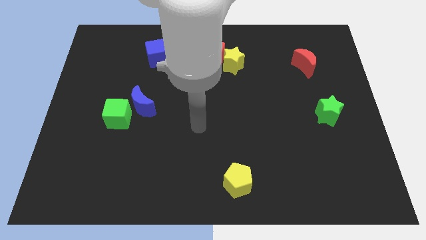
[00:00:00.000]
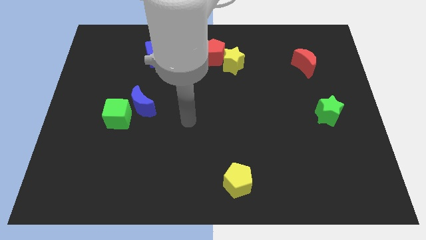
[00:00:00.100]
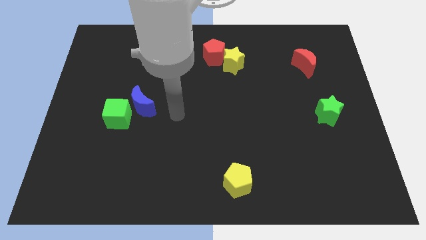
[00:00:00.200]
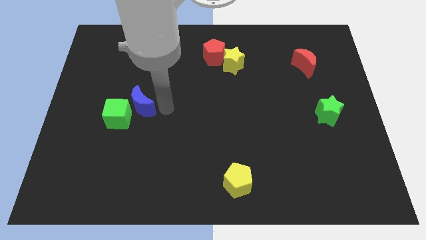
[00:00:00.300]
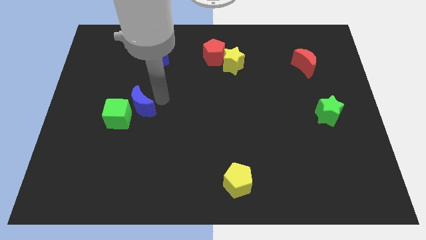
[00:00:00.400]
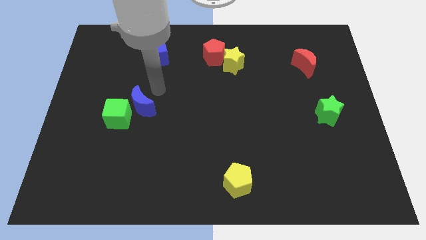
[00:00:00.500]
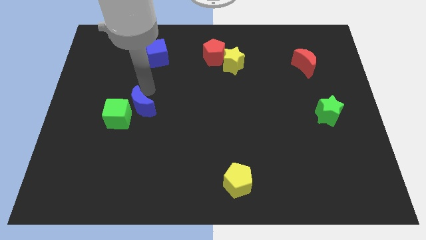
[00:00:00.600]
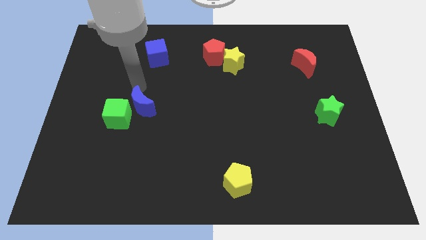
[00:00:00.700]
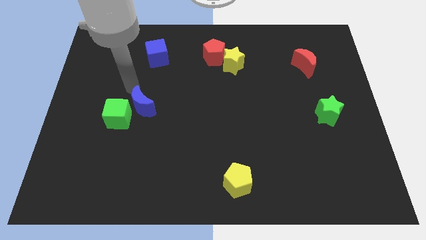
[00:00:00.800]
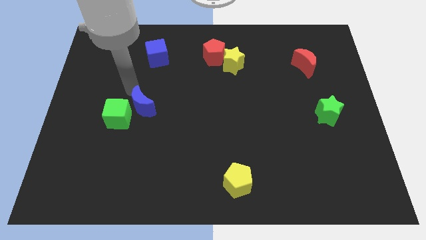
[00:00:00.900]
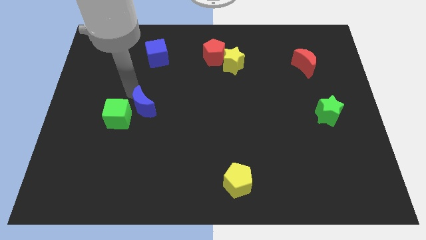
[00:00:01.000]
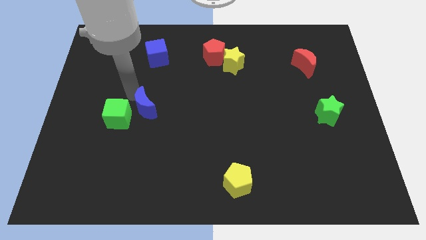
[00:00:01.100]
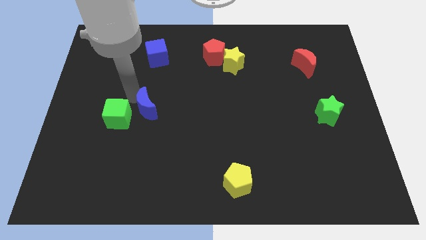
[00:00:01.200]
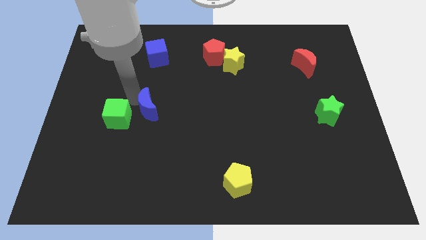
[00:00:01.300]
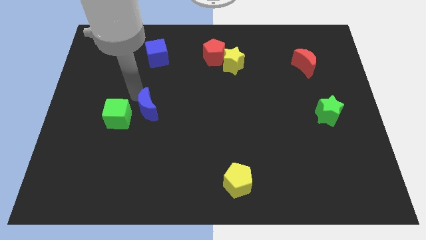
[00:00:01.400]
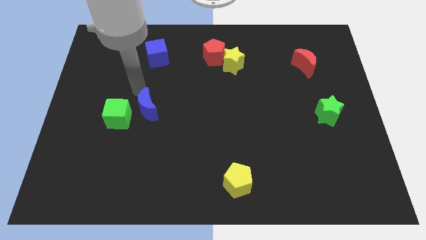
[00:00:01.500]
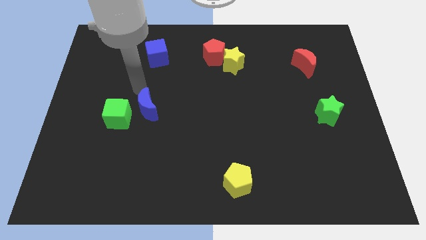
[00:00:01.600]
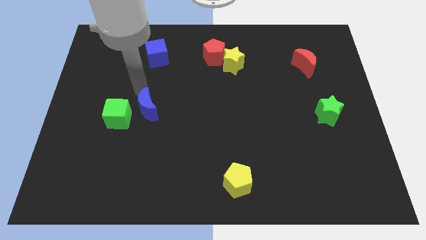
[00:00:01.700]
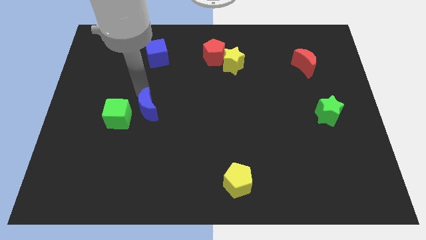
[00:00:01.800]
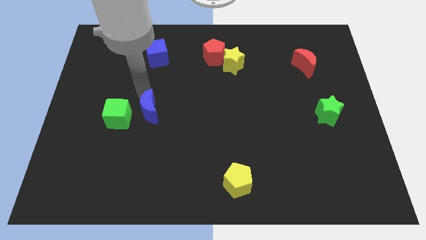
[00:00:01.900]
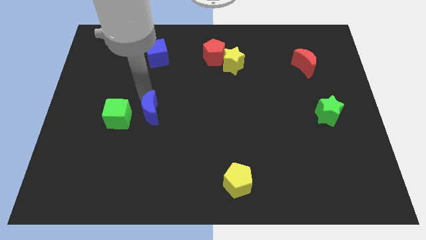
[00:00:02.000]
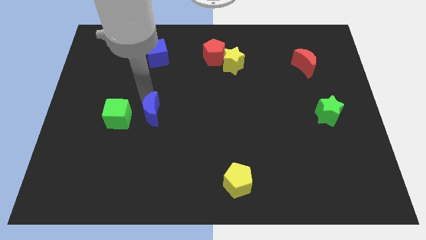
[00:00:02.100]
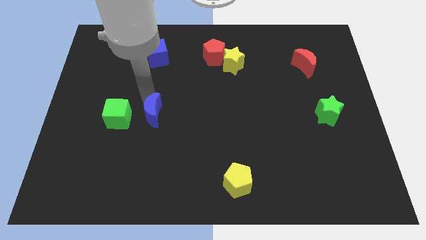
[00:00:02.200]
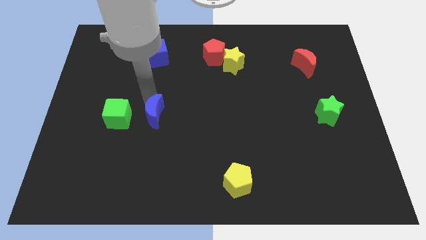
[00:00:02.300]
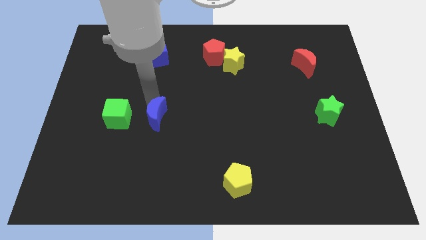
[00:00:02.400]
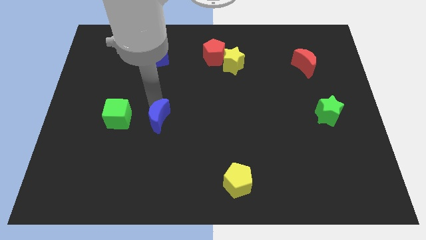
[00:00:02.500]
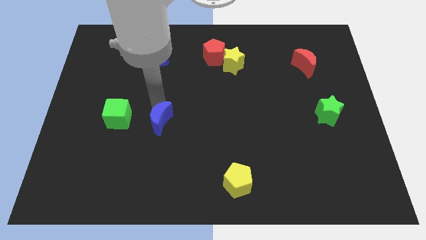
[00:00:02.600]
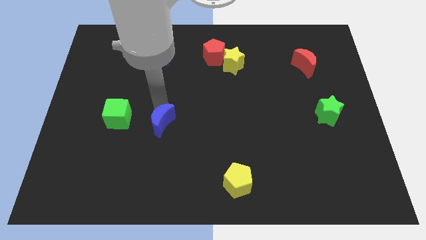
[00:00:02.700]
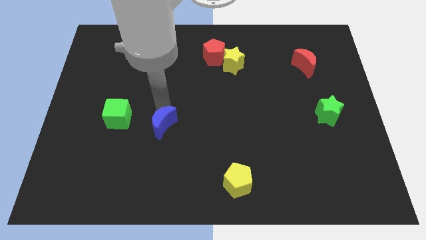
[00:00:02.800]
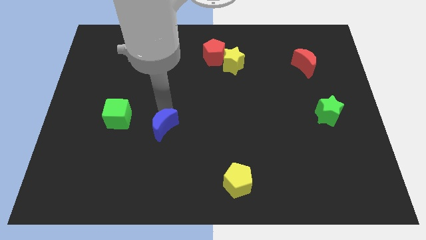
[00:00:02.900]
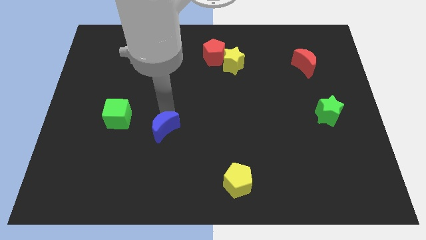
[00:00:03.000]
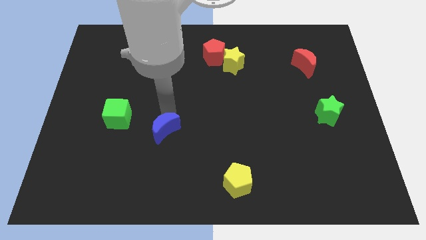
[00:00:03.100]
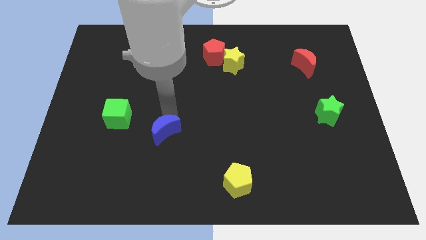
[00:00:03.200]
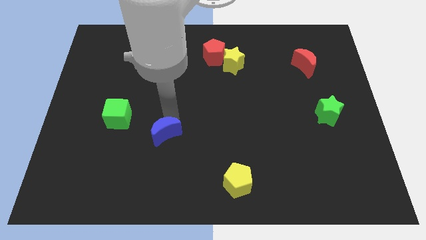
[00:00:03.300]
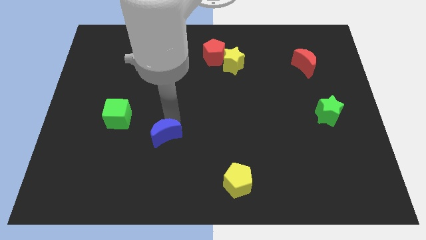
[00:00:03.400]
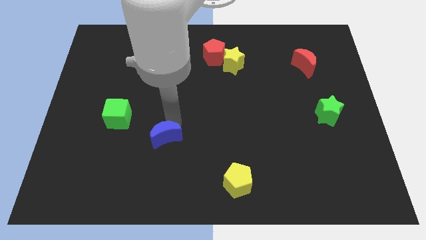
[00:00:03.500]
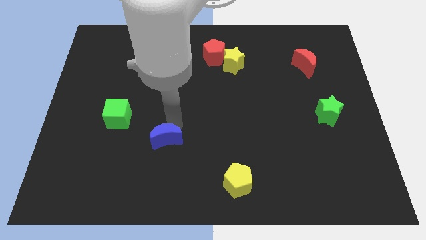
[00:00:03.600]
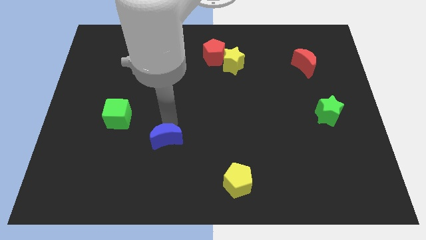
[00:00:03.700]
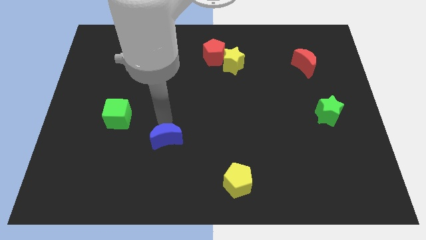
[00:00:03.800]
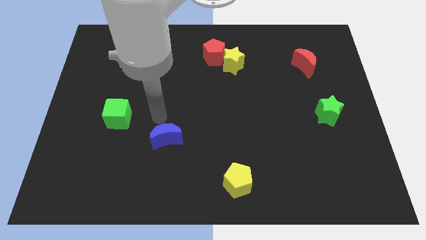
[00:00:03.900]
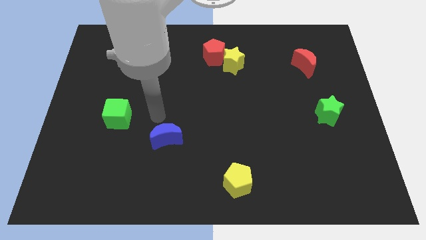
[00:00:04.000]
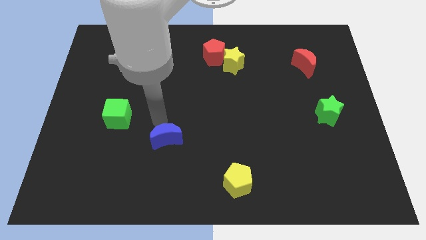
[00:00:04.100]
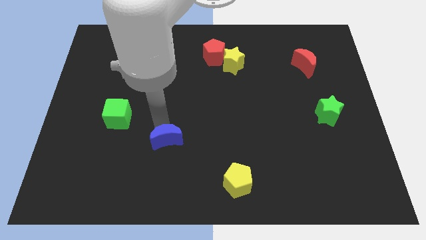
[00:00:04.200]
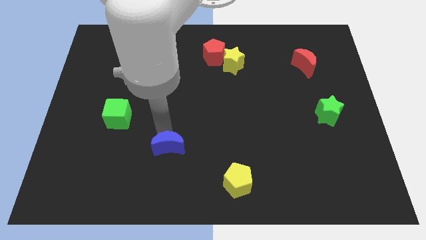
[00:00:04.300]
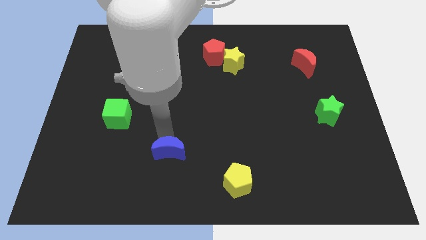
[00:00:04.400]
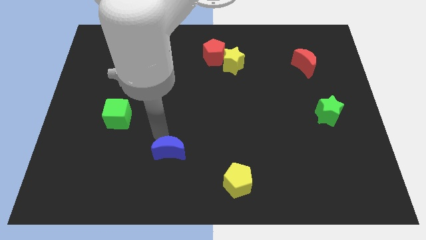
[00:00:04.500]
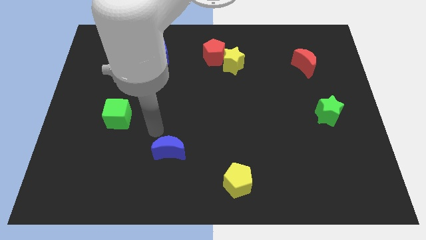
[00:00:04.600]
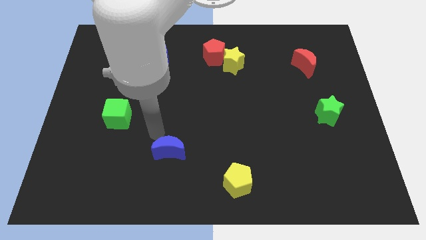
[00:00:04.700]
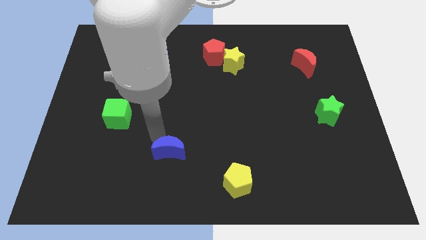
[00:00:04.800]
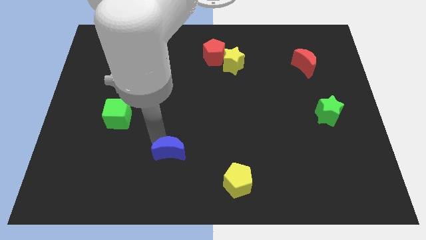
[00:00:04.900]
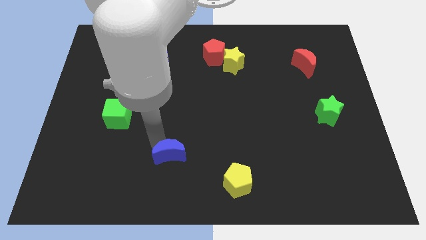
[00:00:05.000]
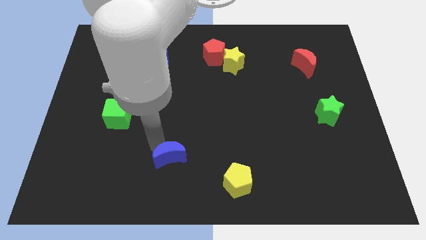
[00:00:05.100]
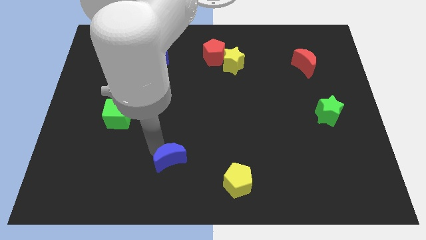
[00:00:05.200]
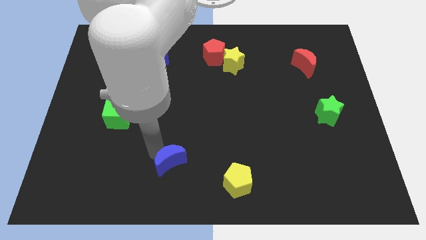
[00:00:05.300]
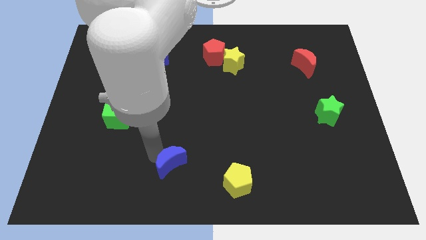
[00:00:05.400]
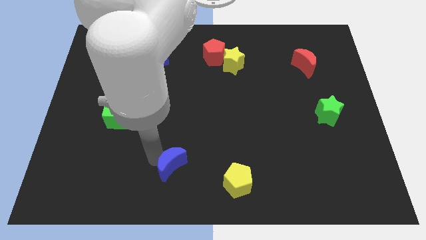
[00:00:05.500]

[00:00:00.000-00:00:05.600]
put the blue moon to the bottom side
